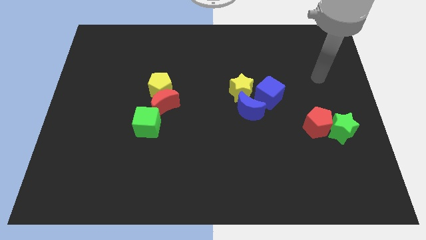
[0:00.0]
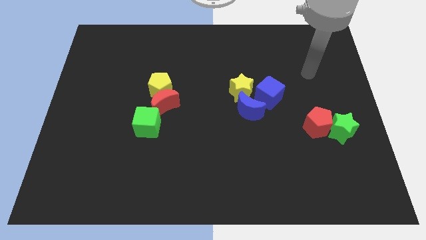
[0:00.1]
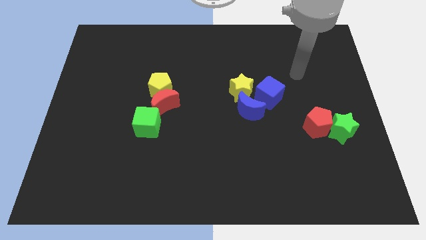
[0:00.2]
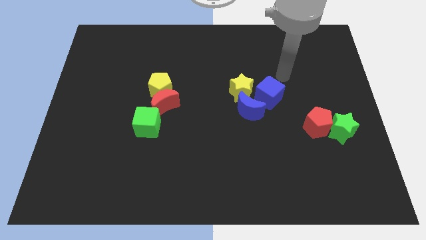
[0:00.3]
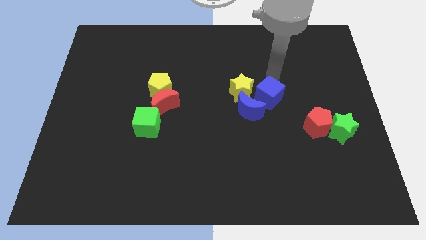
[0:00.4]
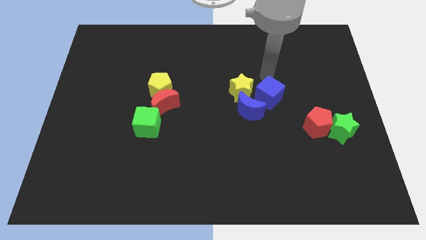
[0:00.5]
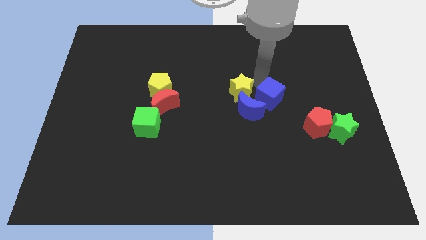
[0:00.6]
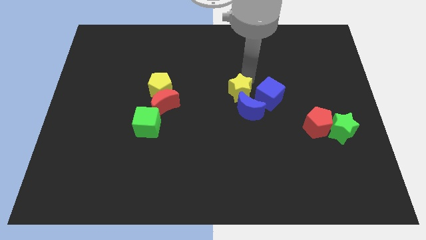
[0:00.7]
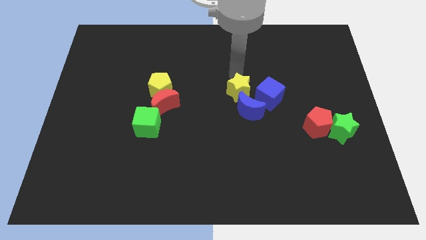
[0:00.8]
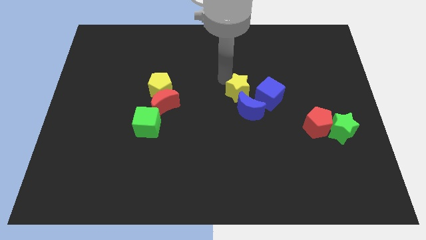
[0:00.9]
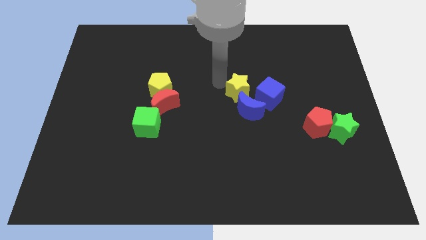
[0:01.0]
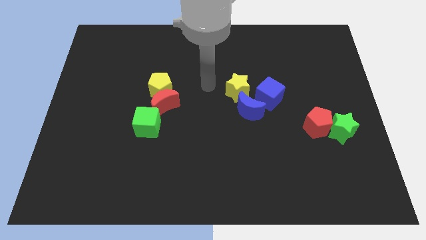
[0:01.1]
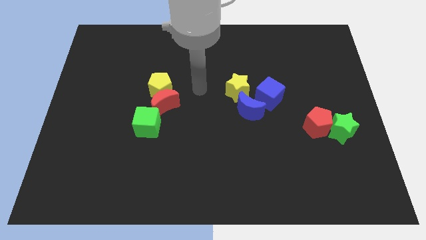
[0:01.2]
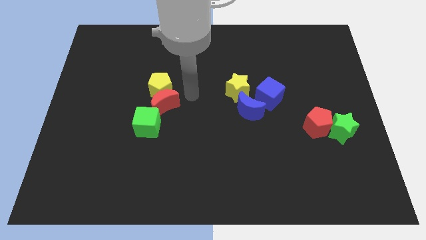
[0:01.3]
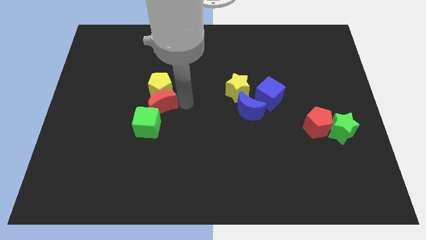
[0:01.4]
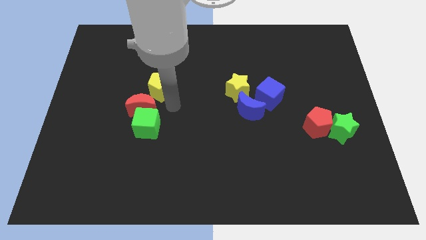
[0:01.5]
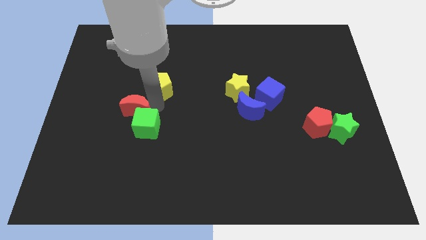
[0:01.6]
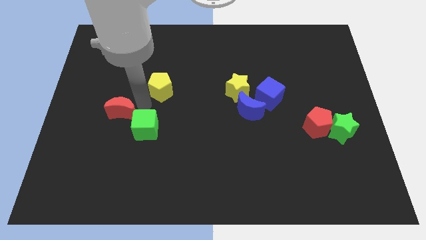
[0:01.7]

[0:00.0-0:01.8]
separate the yellow pentagon from the red moon

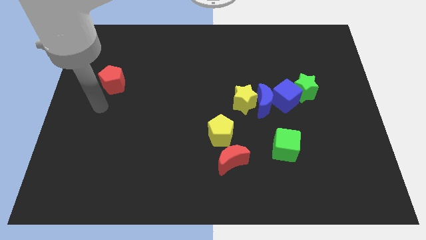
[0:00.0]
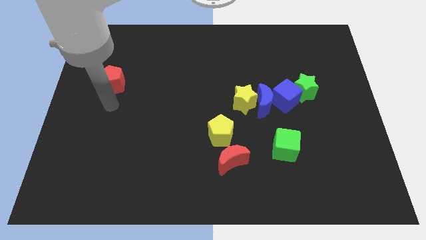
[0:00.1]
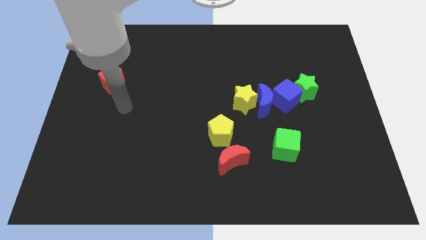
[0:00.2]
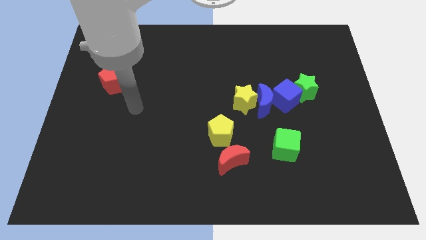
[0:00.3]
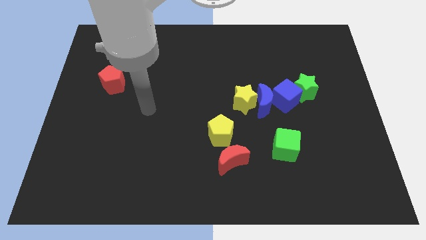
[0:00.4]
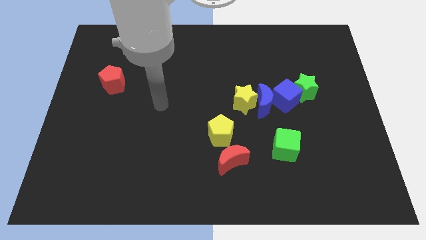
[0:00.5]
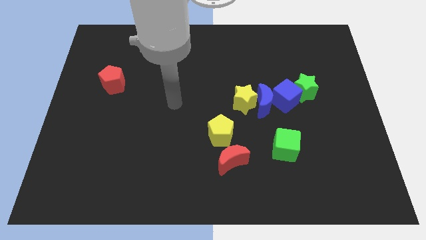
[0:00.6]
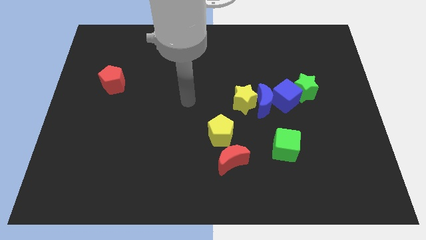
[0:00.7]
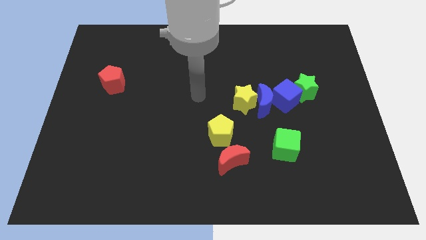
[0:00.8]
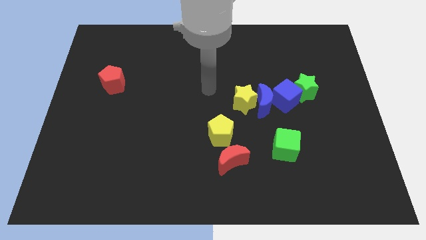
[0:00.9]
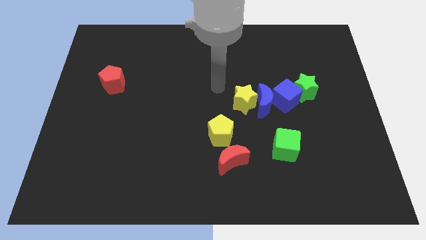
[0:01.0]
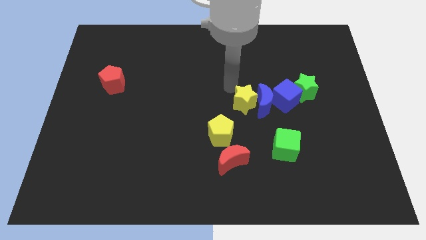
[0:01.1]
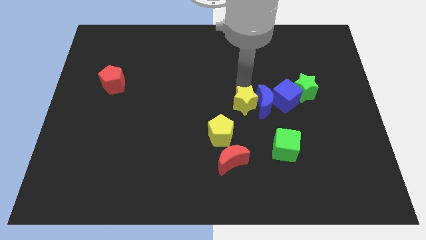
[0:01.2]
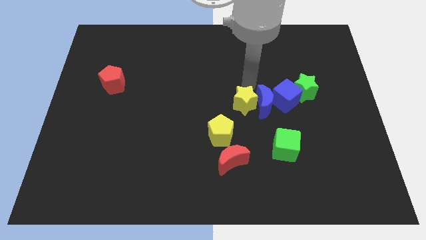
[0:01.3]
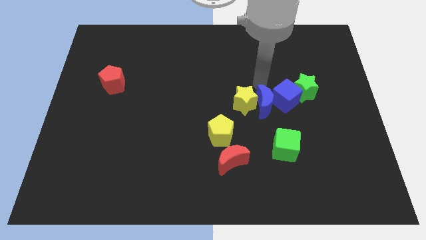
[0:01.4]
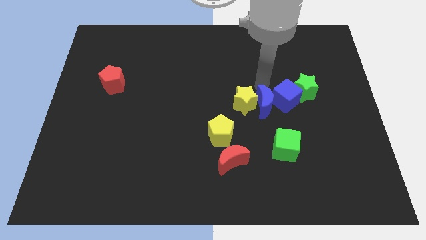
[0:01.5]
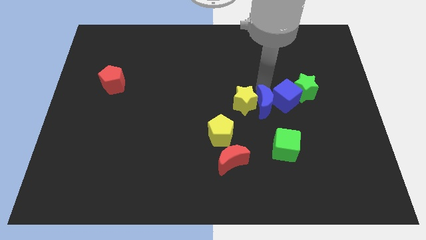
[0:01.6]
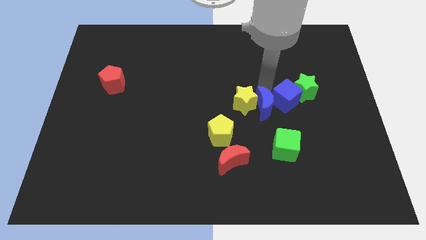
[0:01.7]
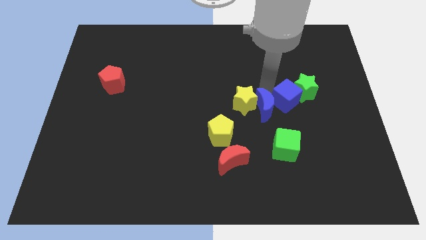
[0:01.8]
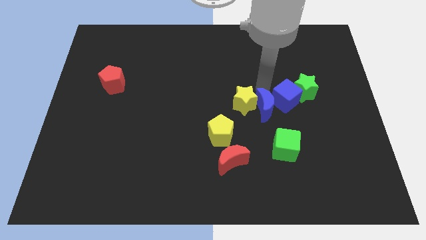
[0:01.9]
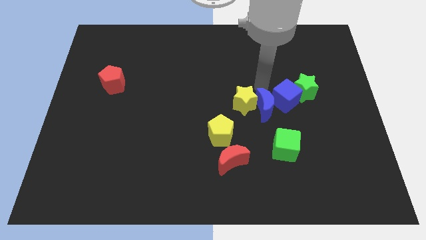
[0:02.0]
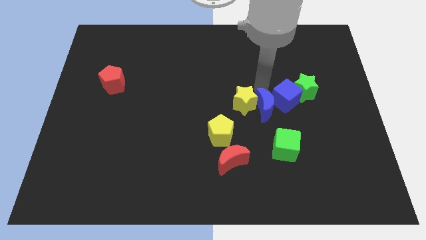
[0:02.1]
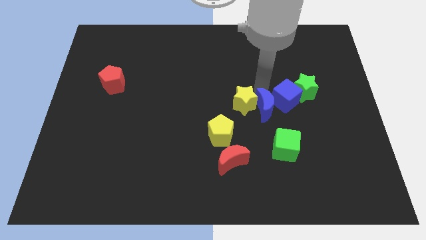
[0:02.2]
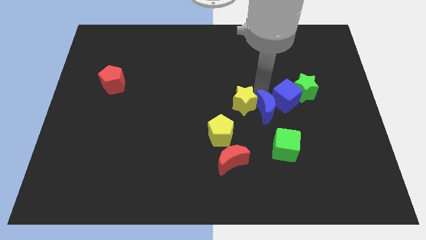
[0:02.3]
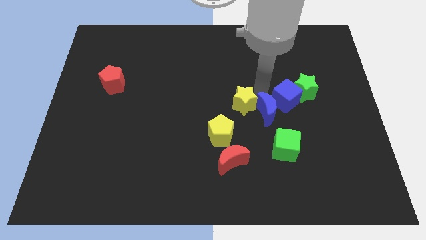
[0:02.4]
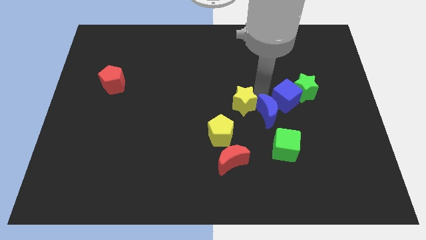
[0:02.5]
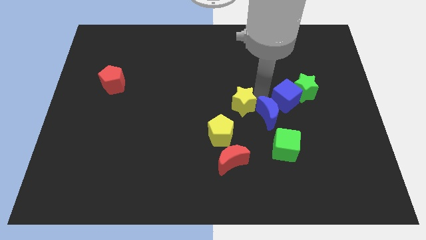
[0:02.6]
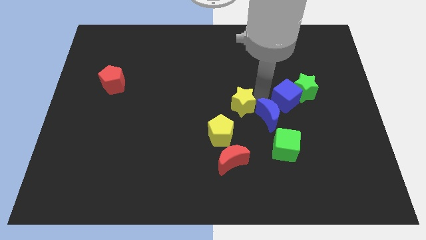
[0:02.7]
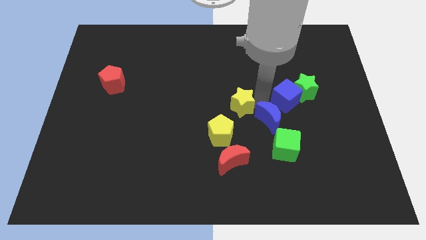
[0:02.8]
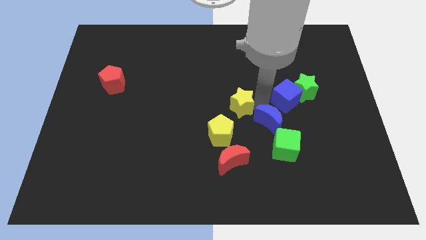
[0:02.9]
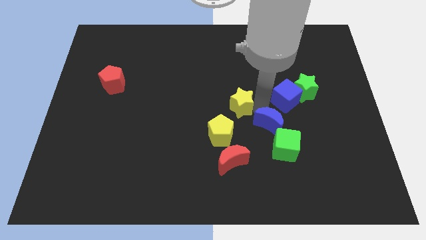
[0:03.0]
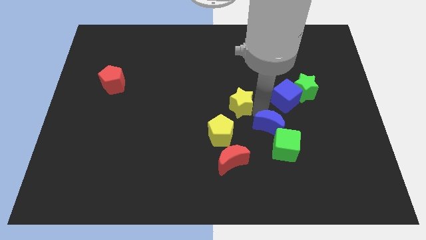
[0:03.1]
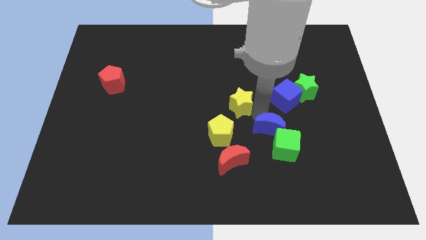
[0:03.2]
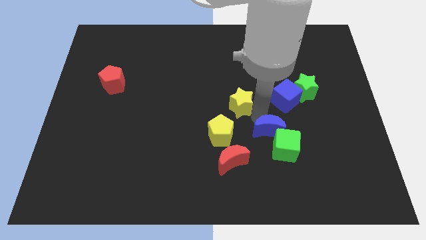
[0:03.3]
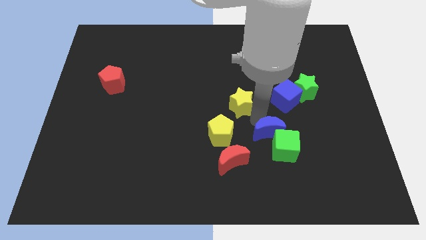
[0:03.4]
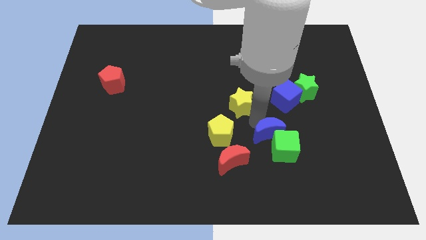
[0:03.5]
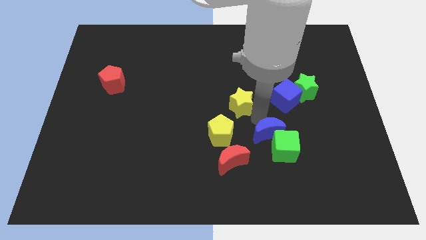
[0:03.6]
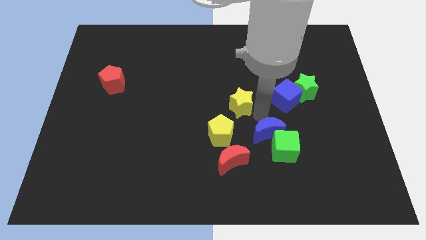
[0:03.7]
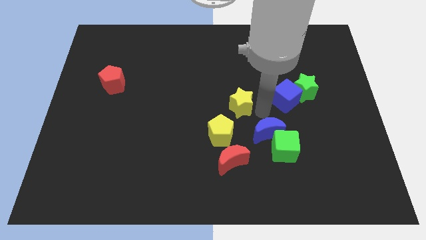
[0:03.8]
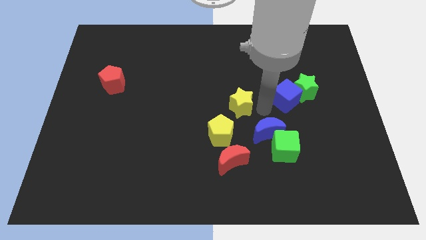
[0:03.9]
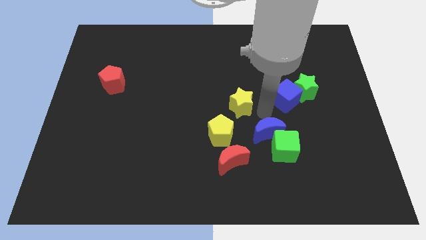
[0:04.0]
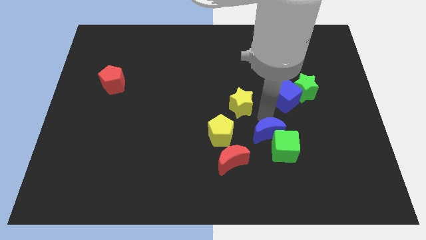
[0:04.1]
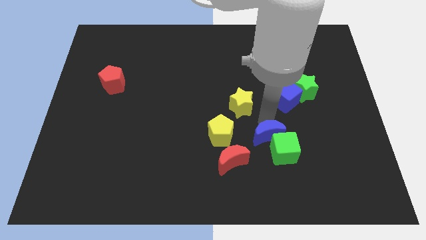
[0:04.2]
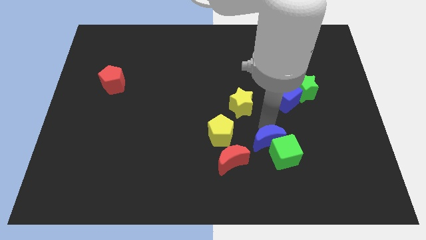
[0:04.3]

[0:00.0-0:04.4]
pull the blue moon apart from the yellow star and blue cube

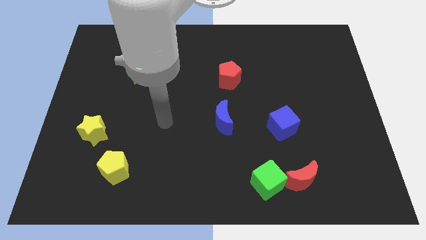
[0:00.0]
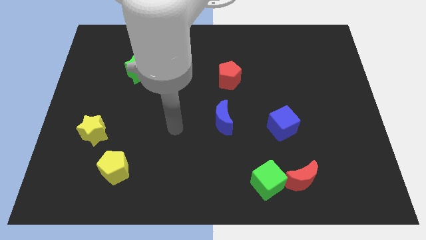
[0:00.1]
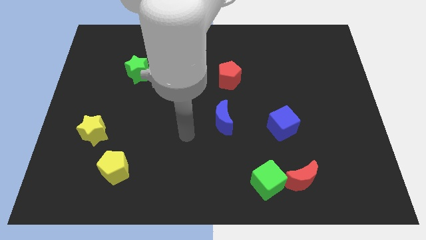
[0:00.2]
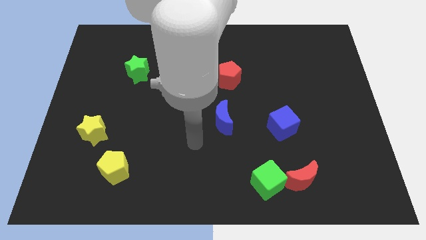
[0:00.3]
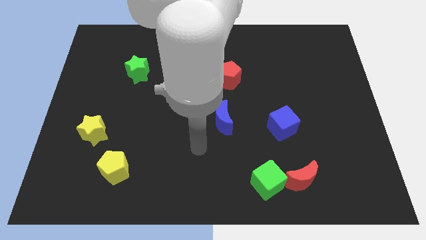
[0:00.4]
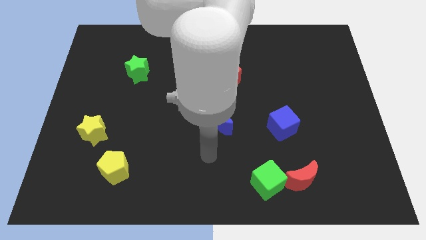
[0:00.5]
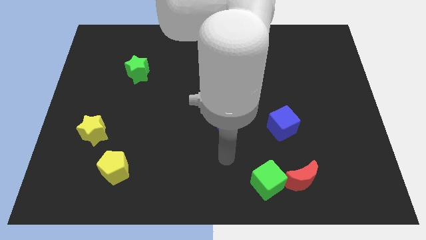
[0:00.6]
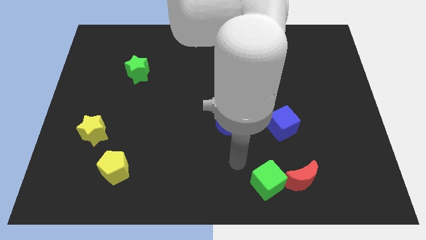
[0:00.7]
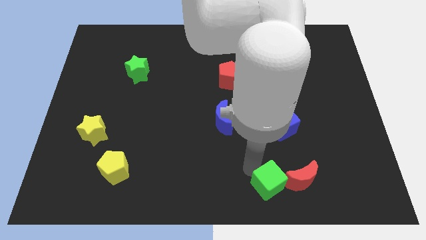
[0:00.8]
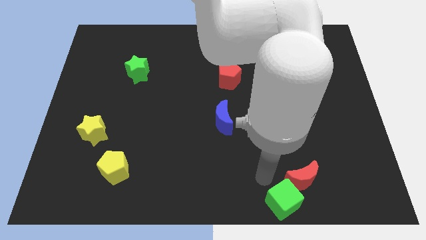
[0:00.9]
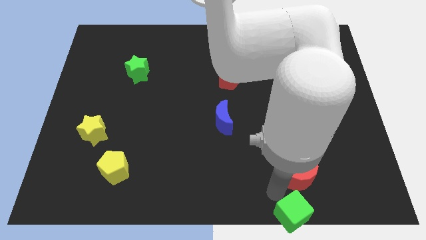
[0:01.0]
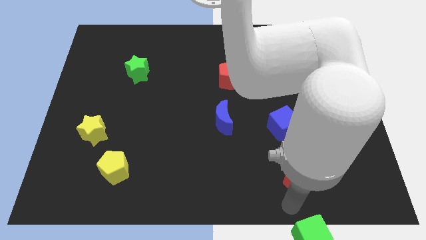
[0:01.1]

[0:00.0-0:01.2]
move the red moon away from the green cube

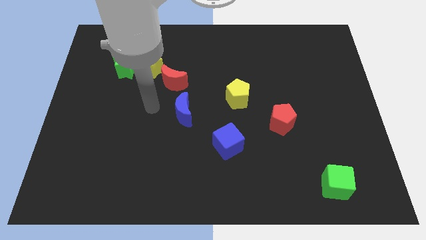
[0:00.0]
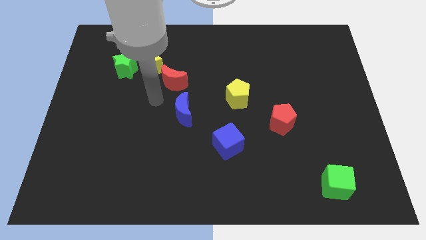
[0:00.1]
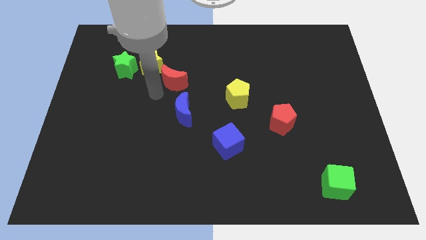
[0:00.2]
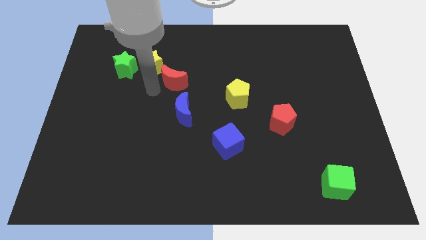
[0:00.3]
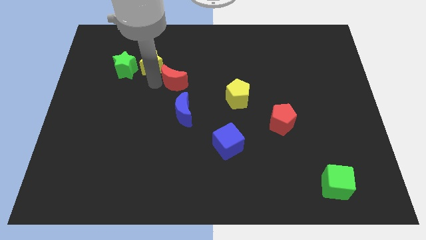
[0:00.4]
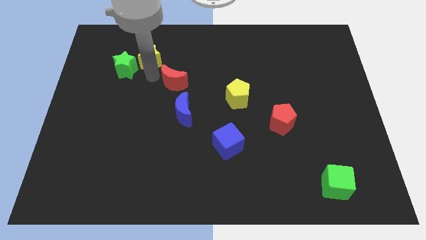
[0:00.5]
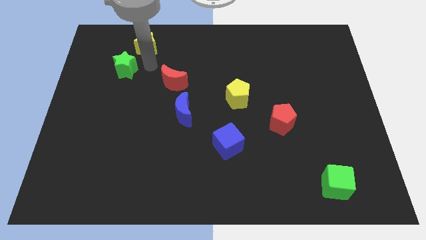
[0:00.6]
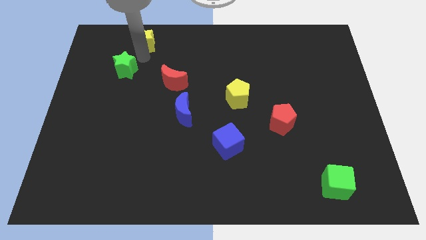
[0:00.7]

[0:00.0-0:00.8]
move the green star away from the yellow star

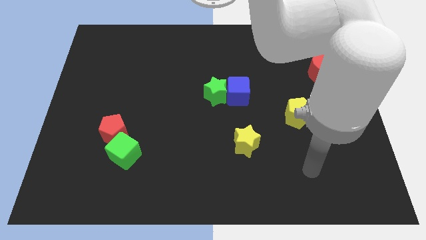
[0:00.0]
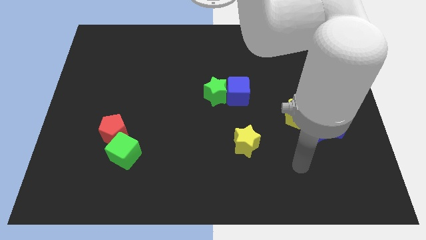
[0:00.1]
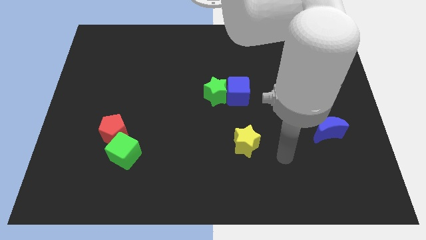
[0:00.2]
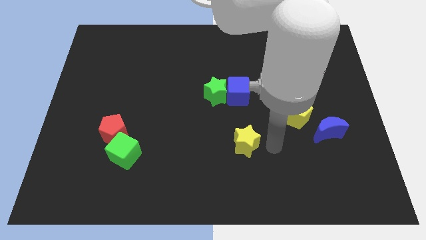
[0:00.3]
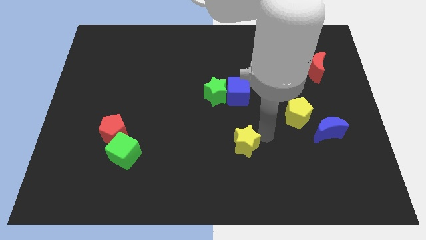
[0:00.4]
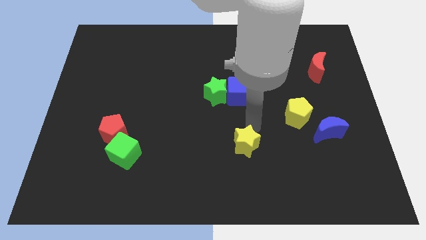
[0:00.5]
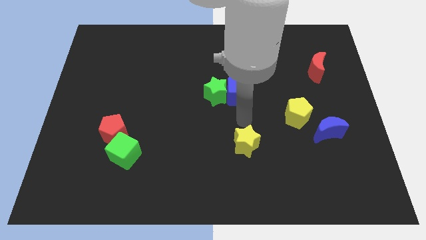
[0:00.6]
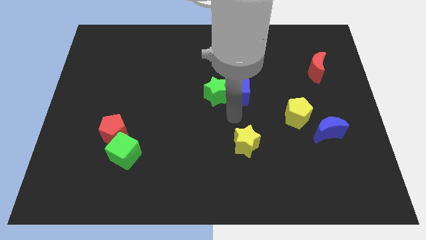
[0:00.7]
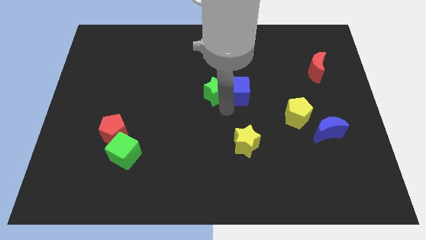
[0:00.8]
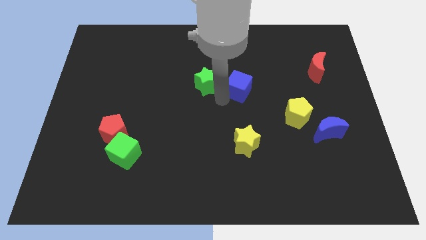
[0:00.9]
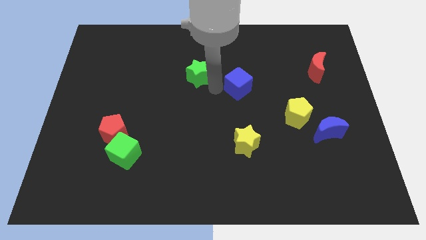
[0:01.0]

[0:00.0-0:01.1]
move the blue cube away from the green star
